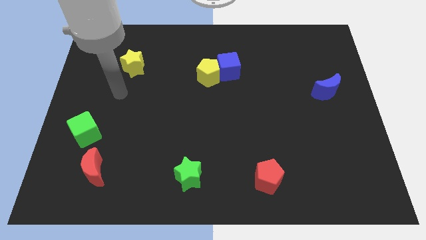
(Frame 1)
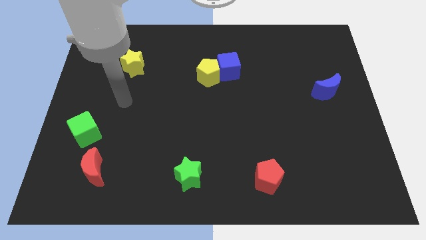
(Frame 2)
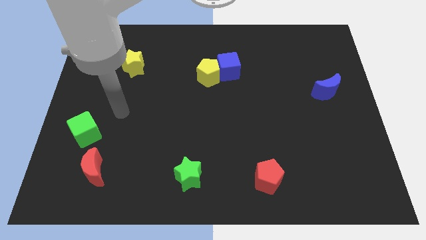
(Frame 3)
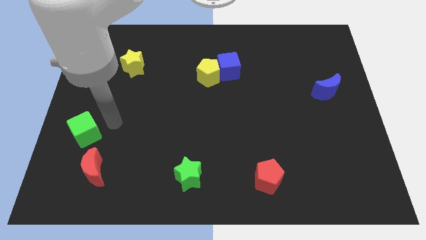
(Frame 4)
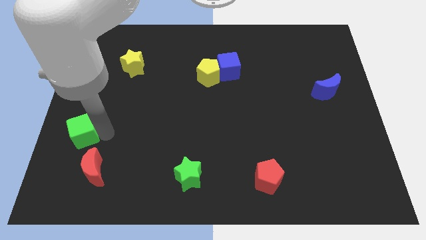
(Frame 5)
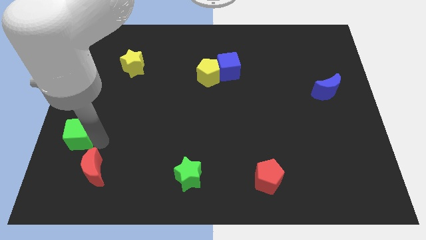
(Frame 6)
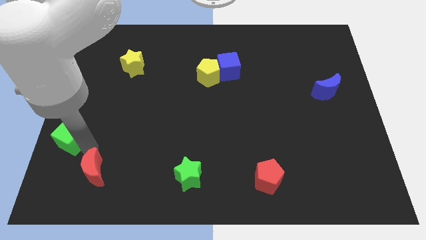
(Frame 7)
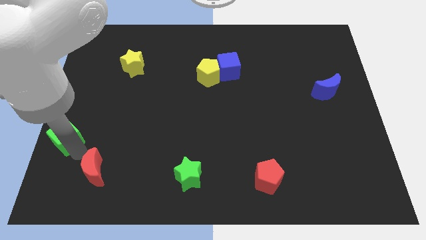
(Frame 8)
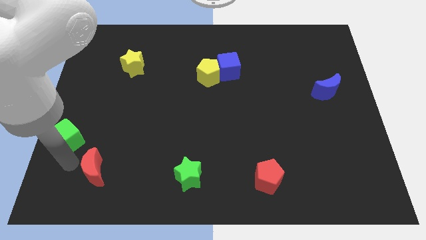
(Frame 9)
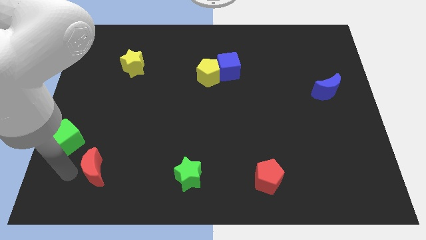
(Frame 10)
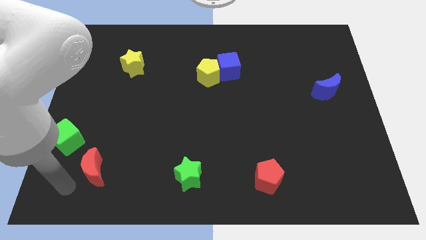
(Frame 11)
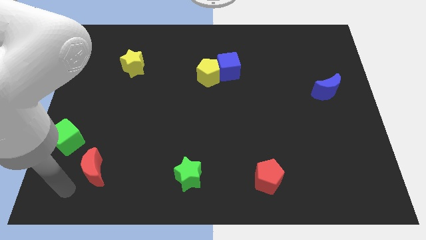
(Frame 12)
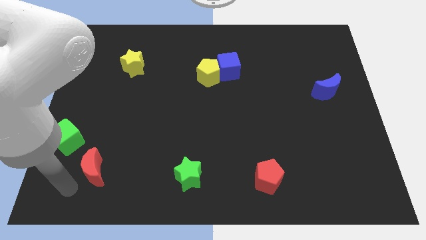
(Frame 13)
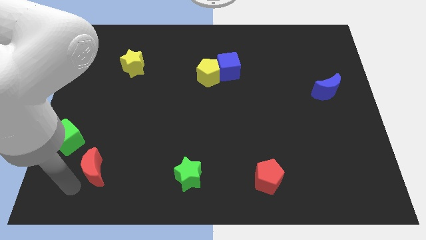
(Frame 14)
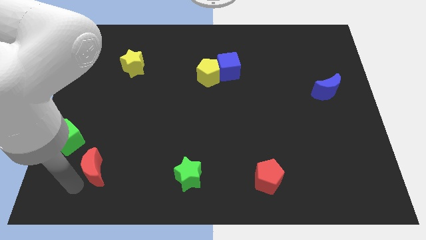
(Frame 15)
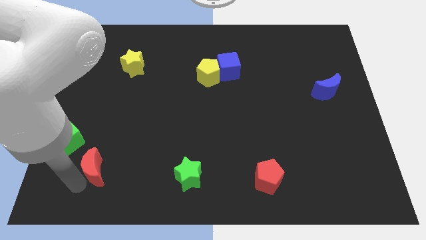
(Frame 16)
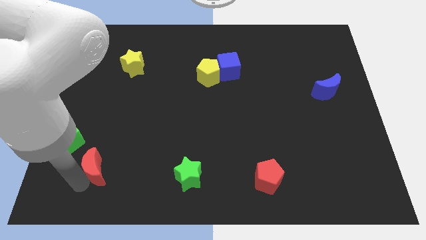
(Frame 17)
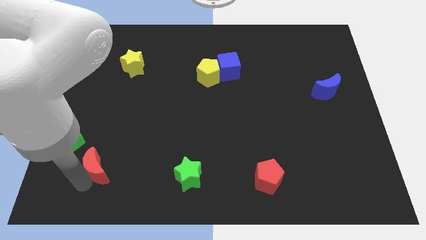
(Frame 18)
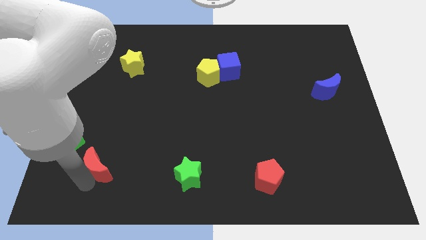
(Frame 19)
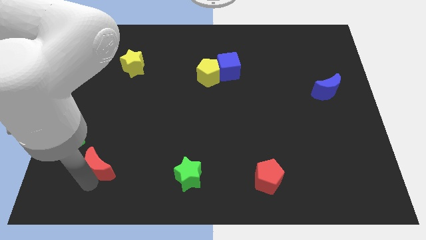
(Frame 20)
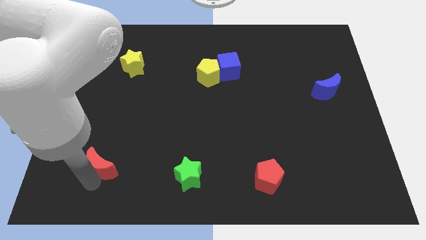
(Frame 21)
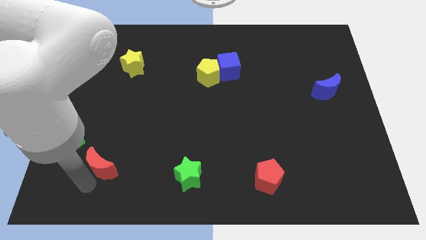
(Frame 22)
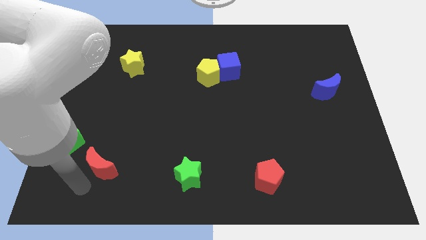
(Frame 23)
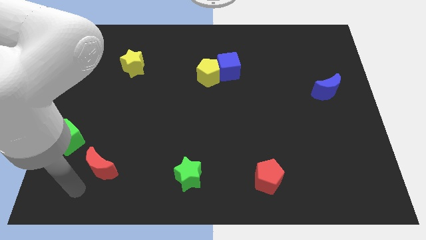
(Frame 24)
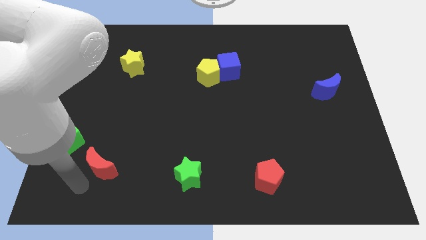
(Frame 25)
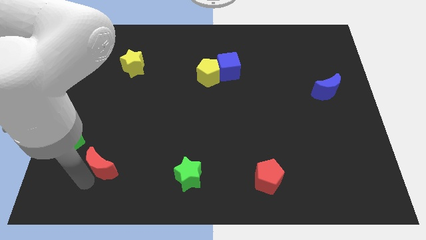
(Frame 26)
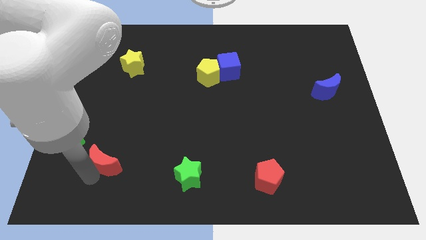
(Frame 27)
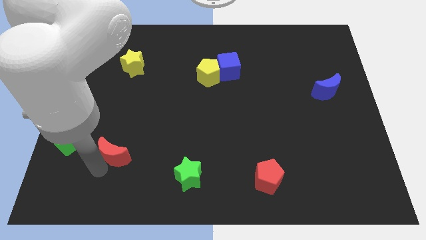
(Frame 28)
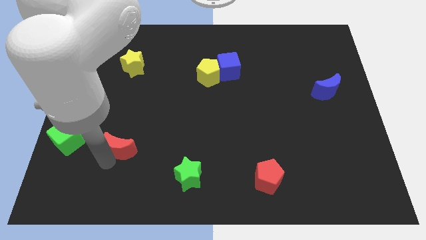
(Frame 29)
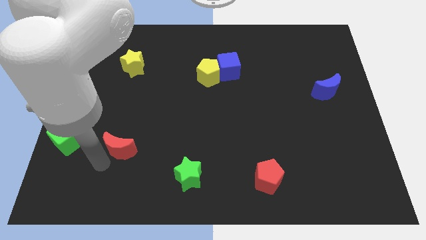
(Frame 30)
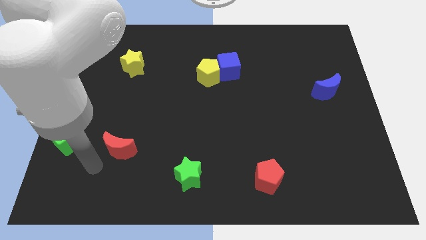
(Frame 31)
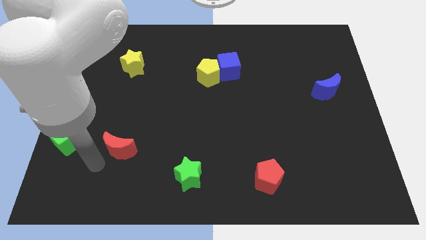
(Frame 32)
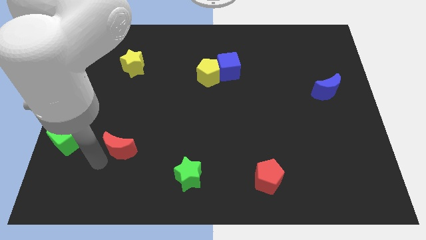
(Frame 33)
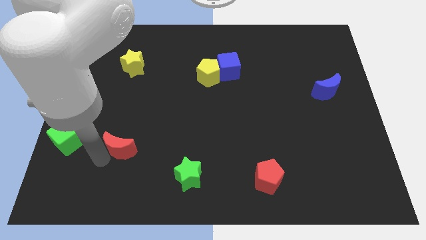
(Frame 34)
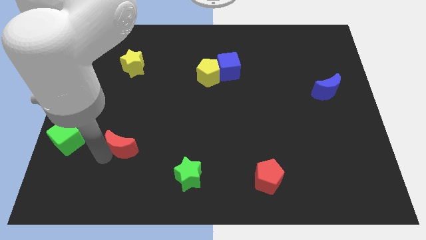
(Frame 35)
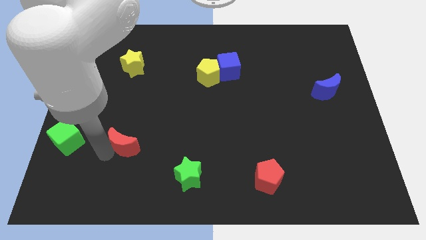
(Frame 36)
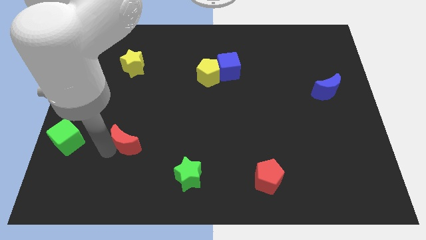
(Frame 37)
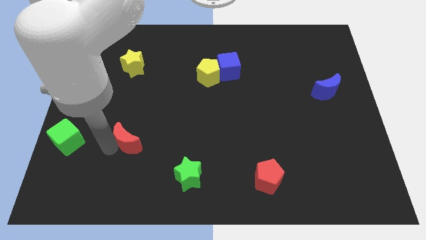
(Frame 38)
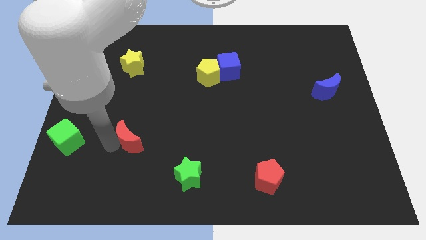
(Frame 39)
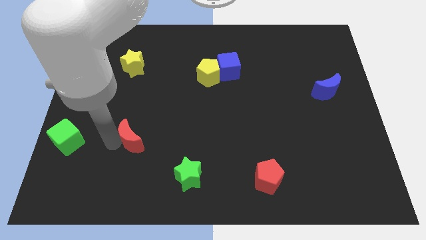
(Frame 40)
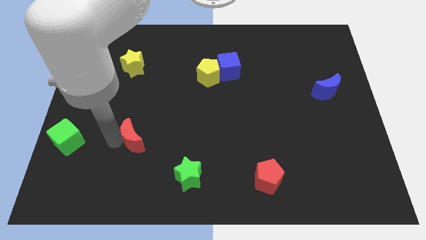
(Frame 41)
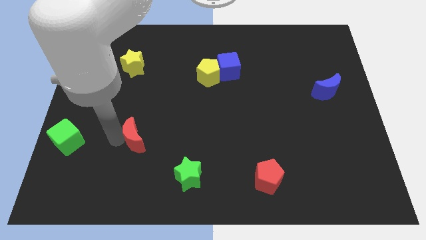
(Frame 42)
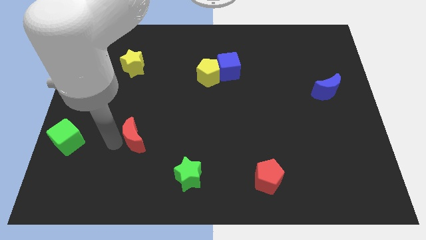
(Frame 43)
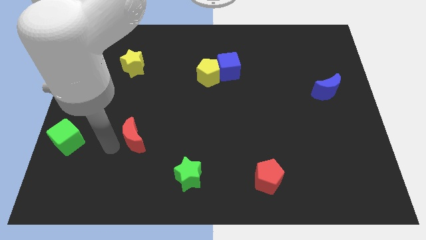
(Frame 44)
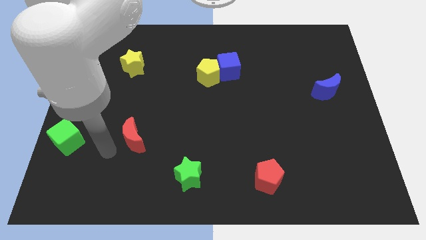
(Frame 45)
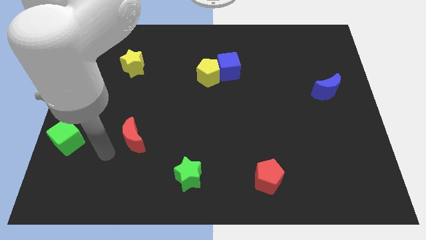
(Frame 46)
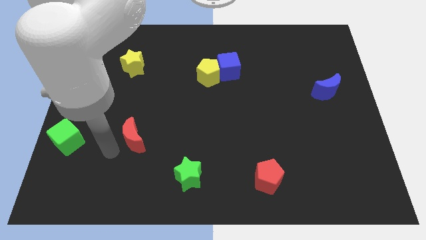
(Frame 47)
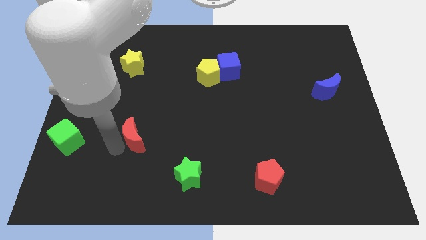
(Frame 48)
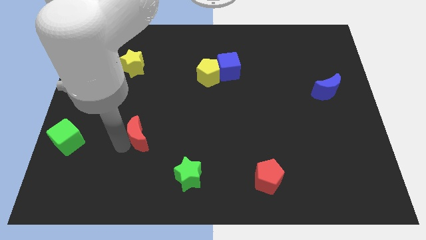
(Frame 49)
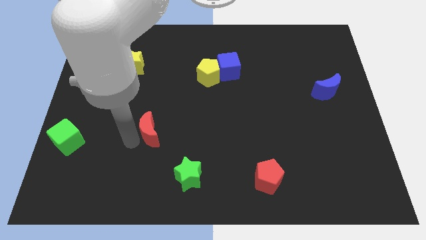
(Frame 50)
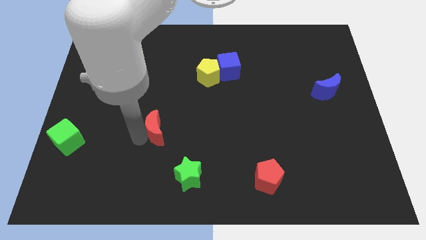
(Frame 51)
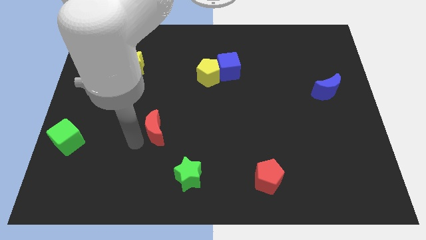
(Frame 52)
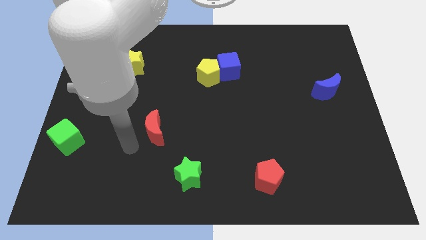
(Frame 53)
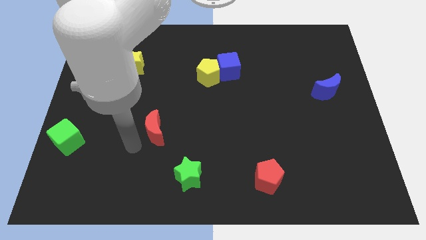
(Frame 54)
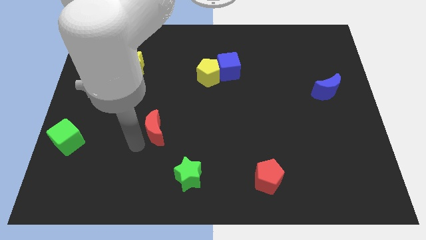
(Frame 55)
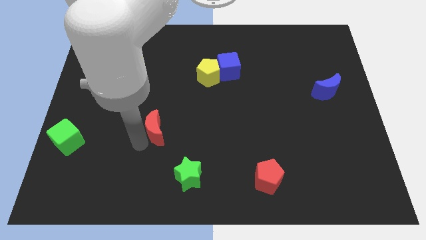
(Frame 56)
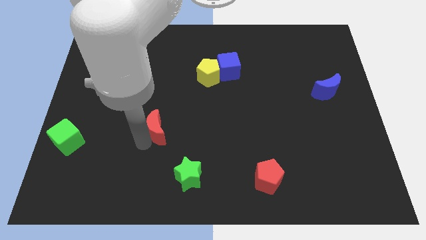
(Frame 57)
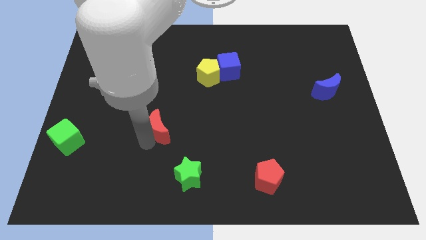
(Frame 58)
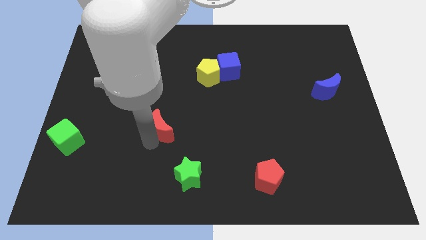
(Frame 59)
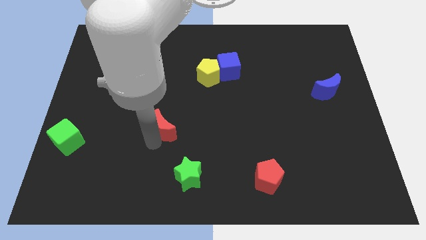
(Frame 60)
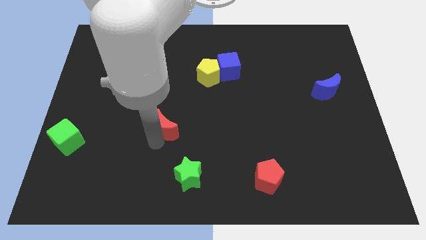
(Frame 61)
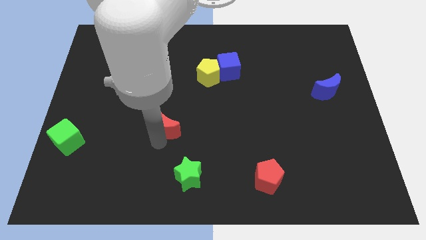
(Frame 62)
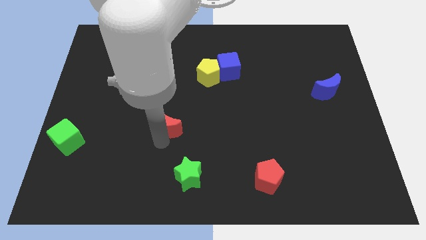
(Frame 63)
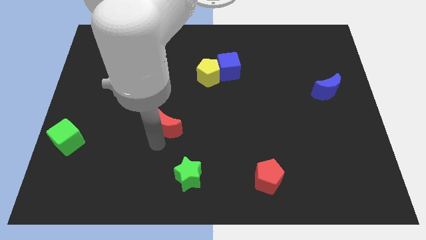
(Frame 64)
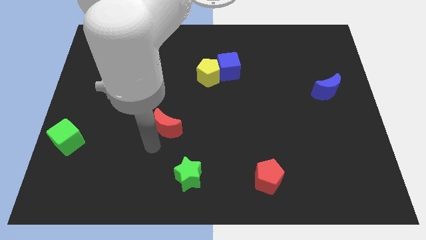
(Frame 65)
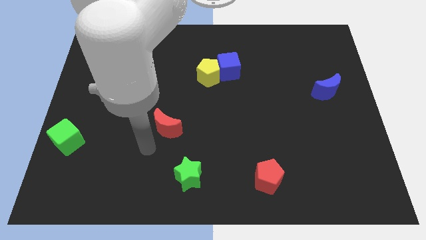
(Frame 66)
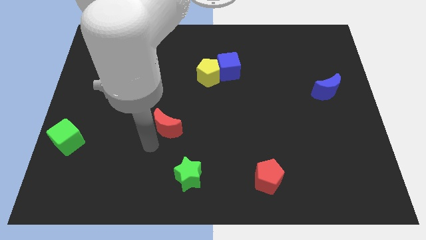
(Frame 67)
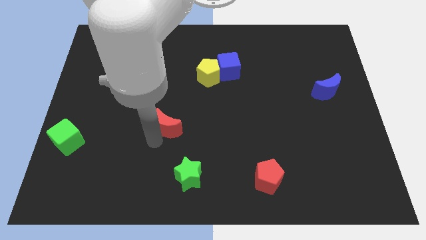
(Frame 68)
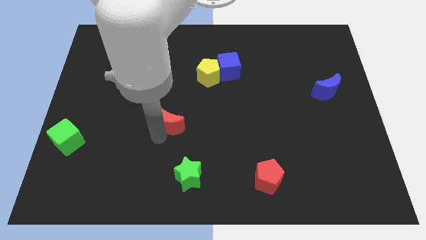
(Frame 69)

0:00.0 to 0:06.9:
slide the red moon to the center
